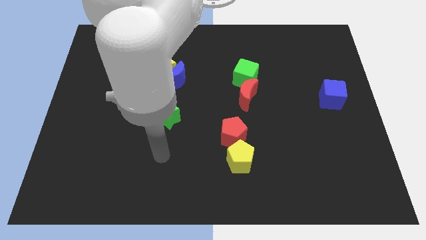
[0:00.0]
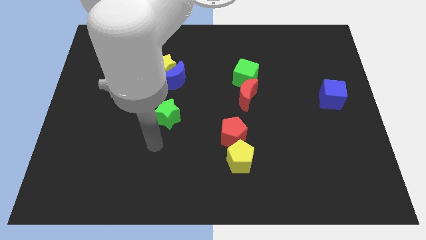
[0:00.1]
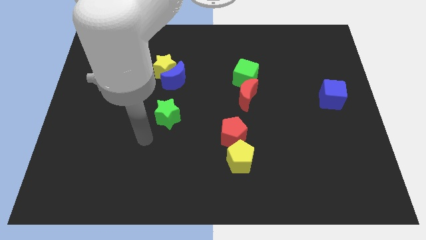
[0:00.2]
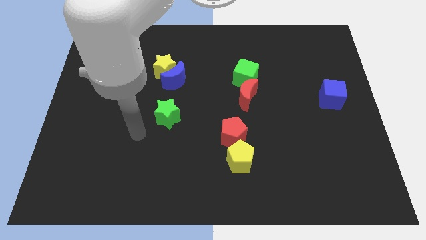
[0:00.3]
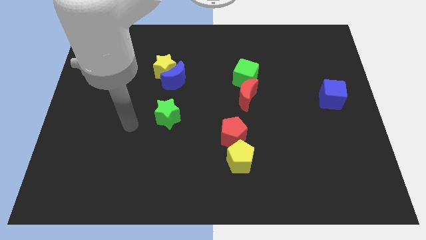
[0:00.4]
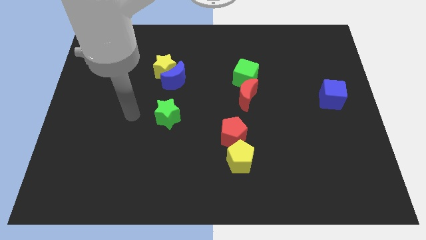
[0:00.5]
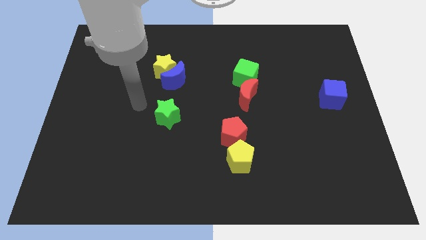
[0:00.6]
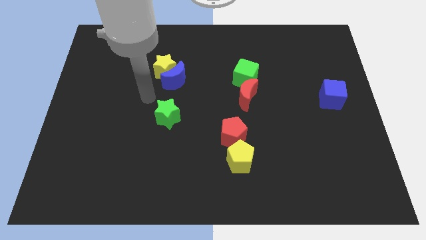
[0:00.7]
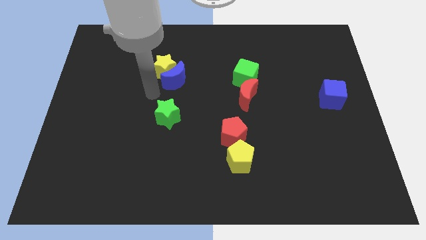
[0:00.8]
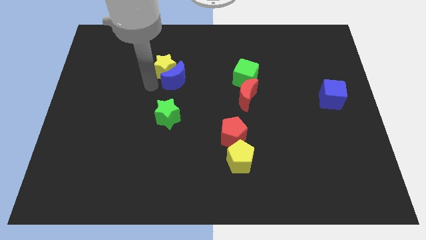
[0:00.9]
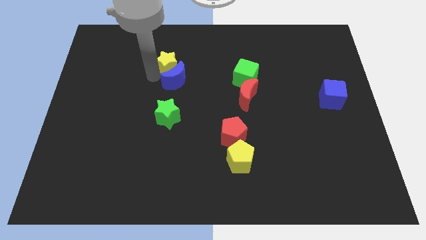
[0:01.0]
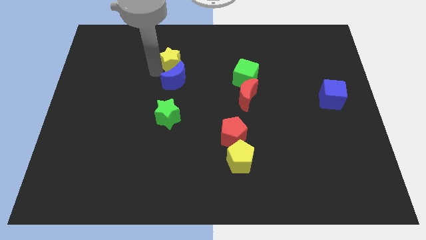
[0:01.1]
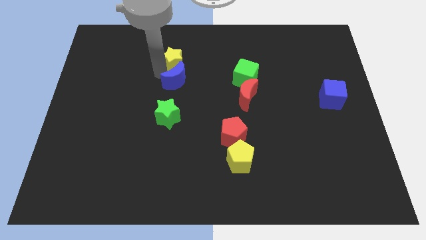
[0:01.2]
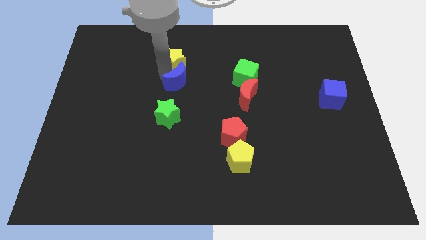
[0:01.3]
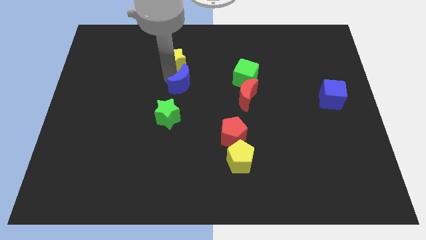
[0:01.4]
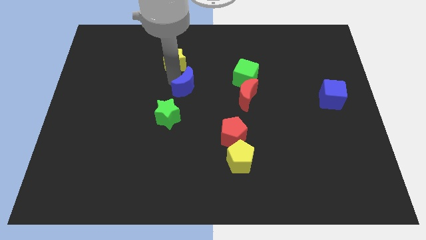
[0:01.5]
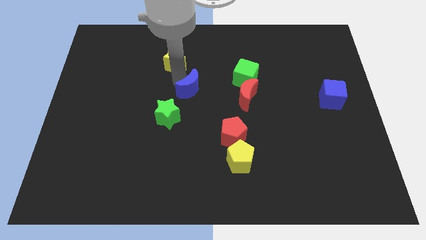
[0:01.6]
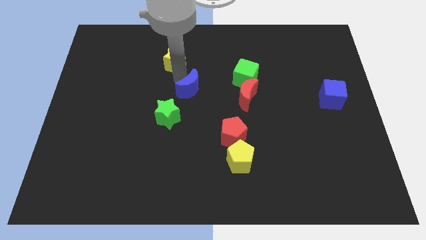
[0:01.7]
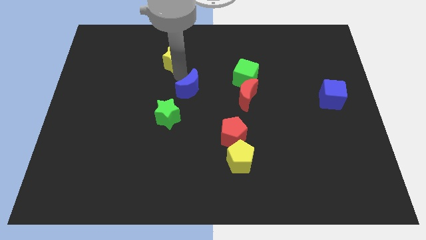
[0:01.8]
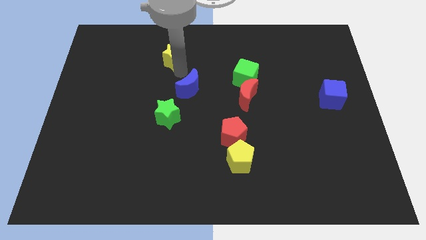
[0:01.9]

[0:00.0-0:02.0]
move the blue moon away from the yellow star

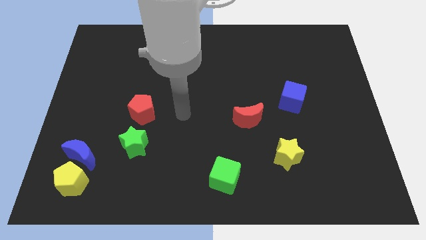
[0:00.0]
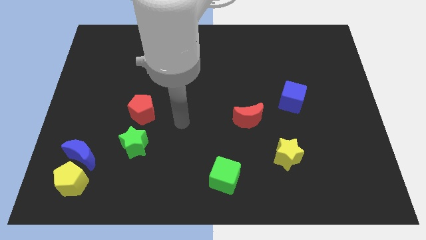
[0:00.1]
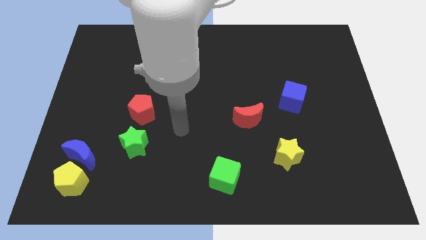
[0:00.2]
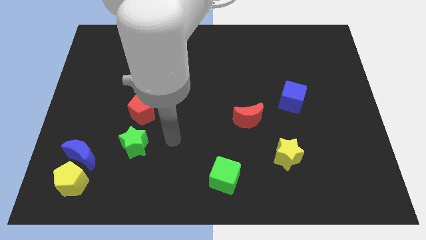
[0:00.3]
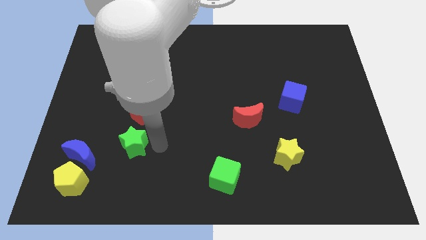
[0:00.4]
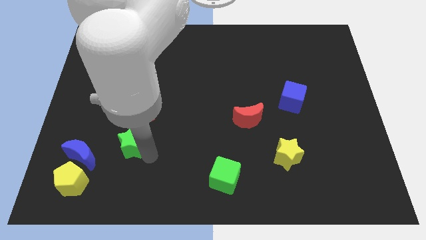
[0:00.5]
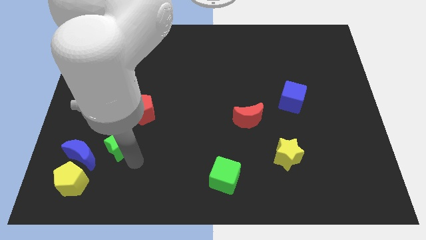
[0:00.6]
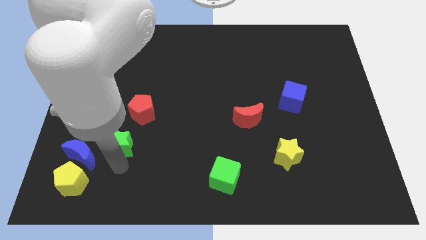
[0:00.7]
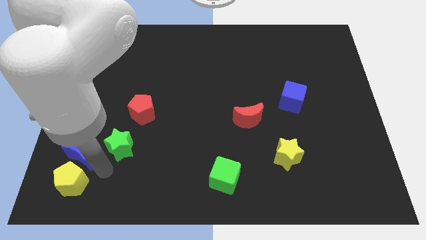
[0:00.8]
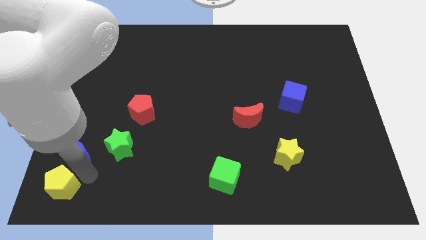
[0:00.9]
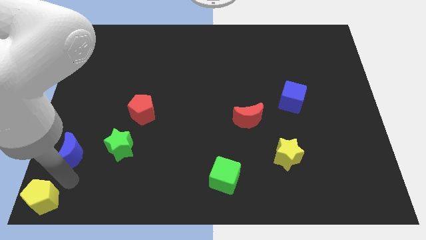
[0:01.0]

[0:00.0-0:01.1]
pull the blue moon apart from the yellow pentagon

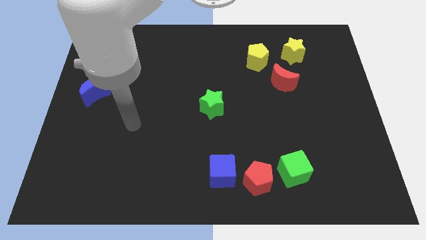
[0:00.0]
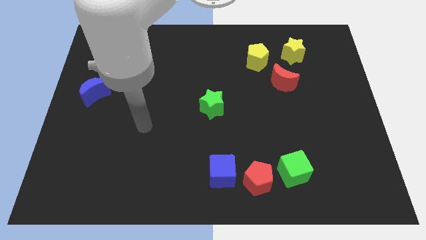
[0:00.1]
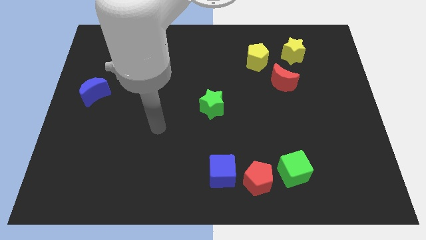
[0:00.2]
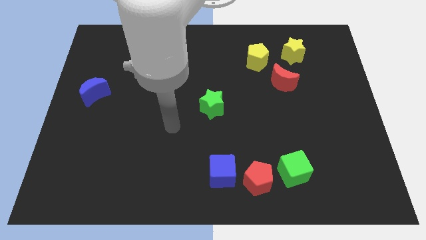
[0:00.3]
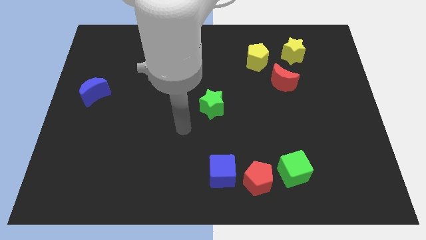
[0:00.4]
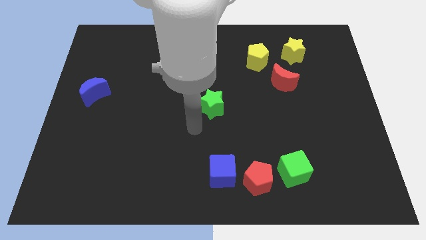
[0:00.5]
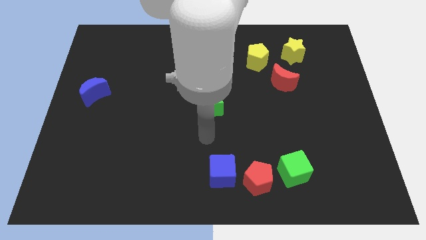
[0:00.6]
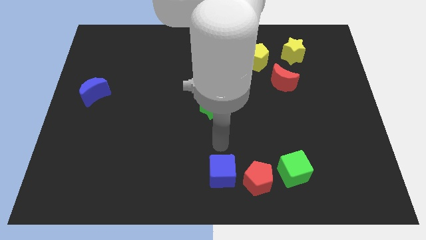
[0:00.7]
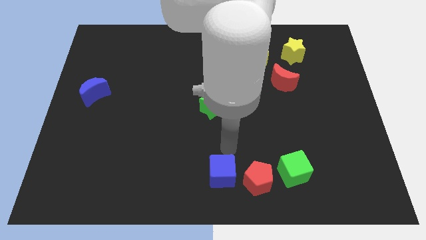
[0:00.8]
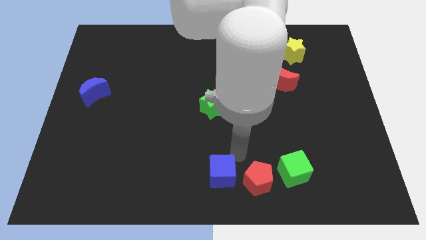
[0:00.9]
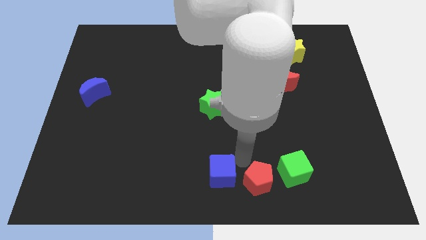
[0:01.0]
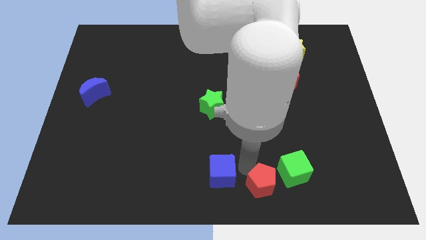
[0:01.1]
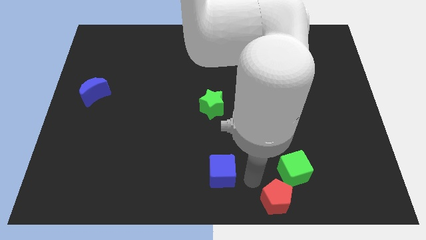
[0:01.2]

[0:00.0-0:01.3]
move the blue cube away from the red pentagon

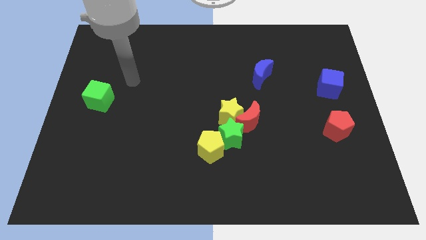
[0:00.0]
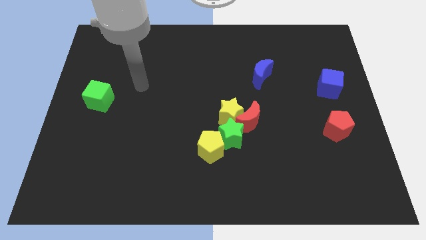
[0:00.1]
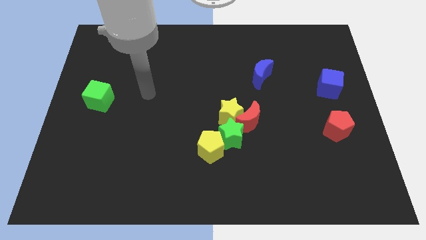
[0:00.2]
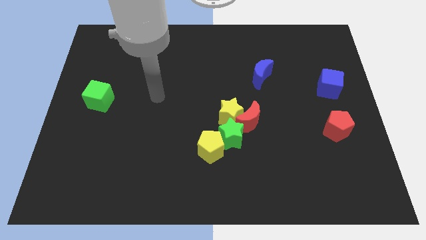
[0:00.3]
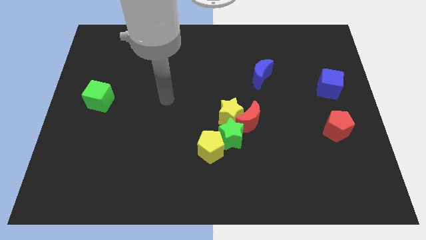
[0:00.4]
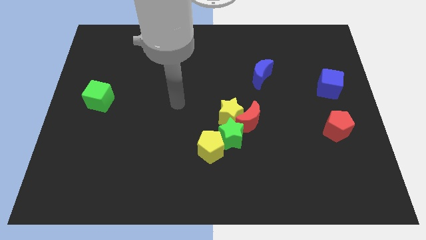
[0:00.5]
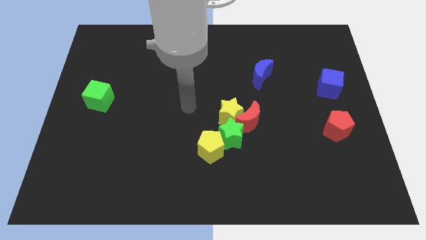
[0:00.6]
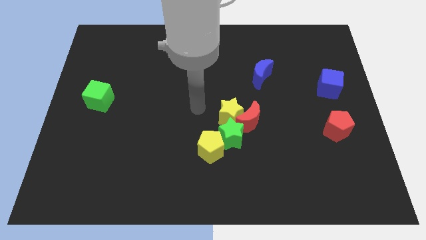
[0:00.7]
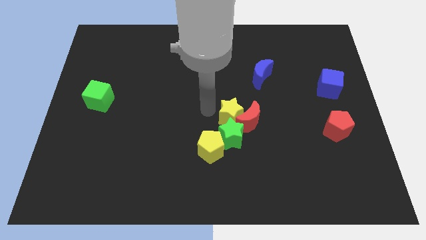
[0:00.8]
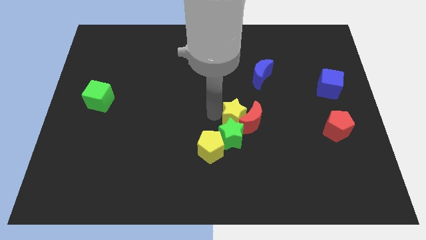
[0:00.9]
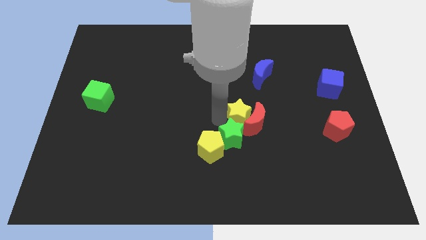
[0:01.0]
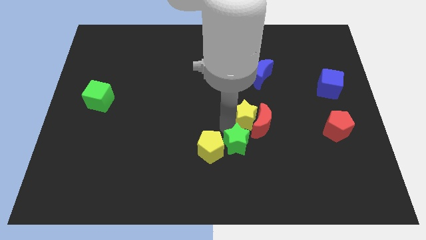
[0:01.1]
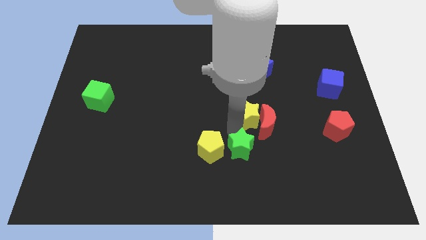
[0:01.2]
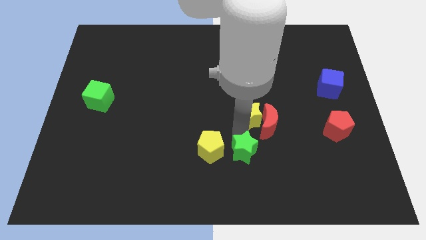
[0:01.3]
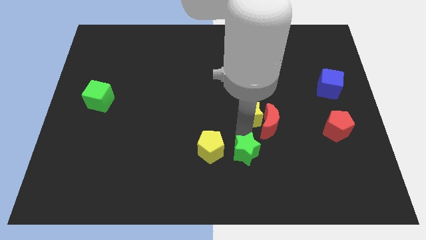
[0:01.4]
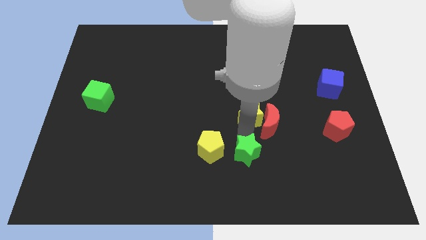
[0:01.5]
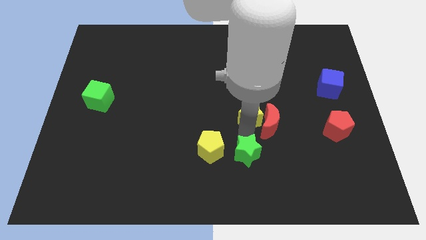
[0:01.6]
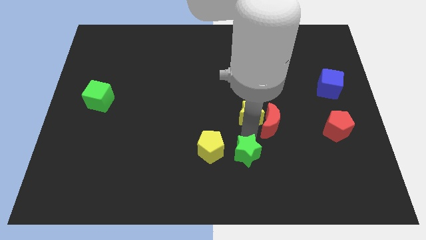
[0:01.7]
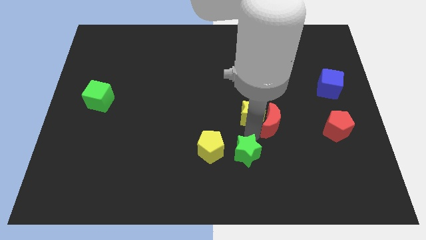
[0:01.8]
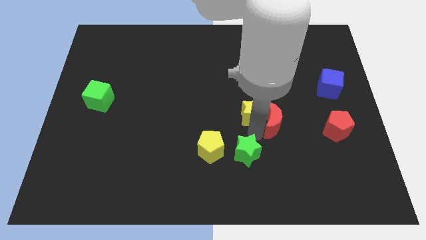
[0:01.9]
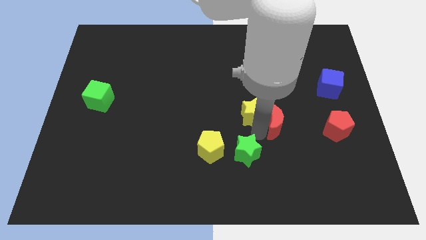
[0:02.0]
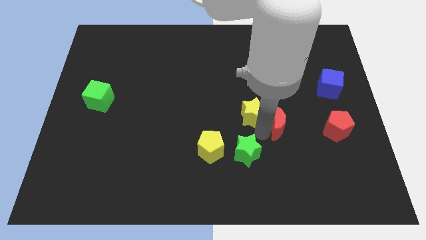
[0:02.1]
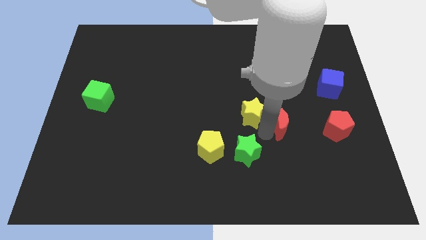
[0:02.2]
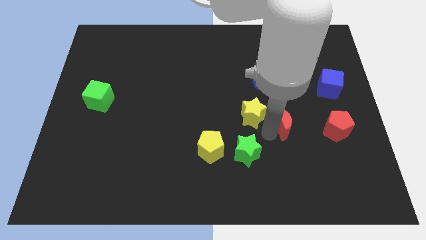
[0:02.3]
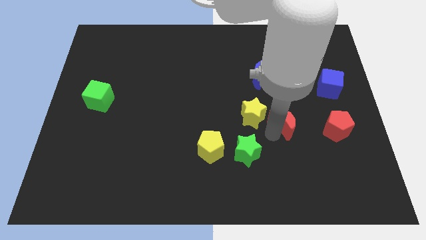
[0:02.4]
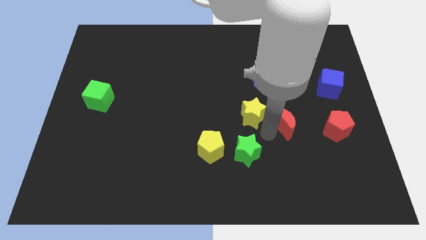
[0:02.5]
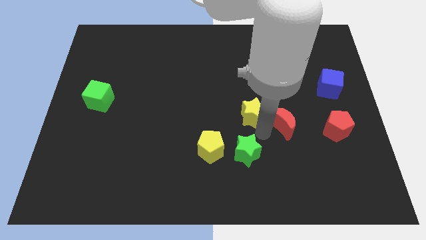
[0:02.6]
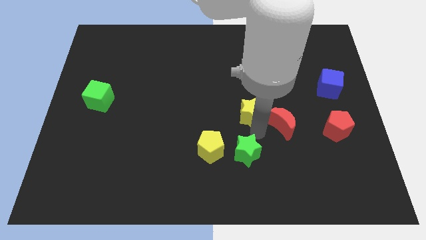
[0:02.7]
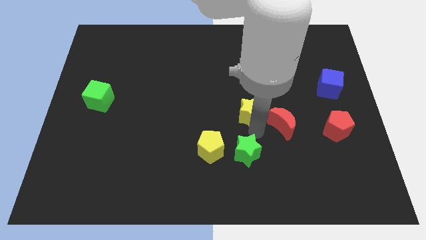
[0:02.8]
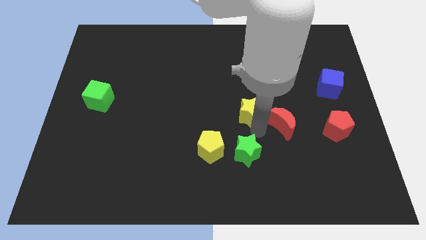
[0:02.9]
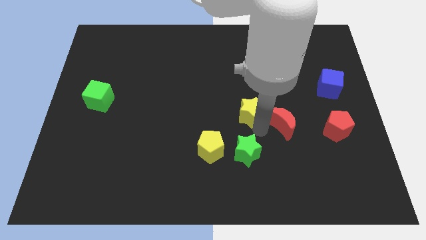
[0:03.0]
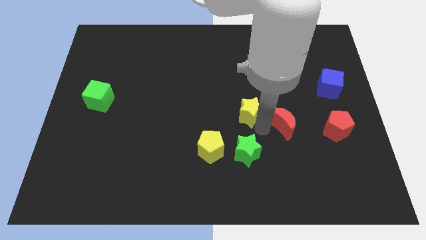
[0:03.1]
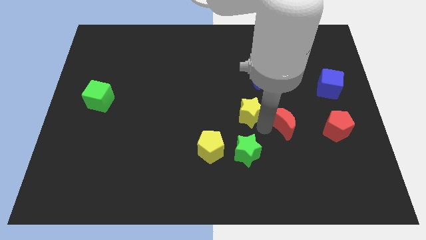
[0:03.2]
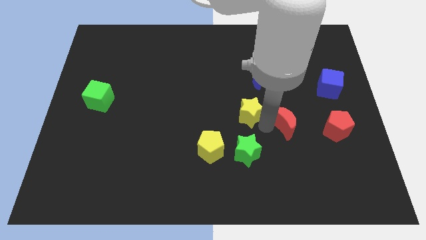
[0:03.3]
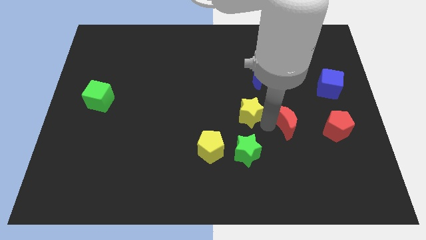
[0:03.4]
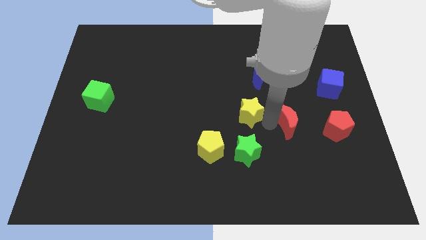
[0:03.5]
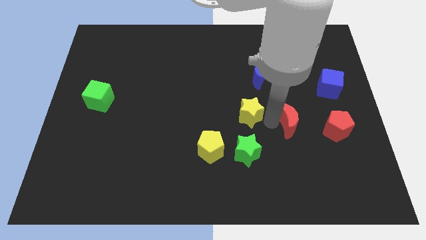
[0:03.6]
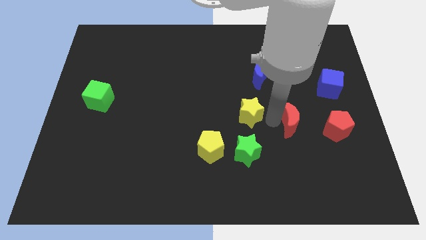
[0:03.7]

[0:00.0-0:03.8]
move the red moon away from the yellow star and green star

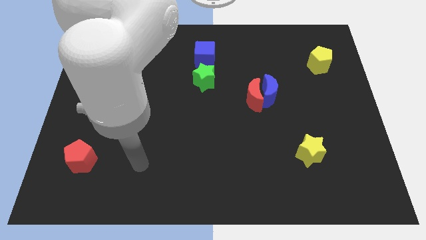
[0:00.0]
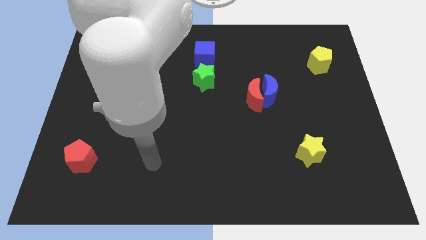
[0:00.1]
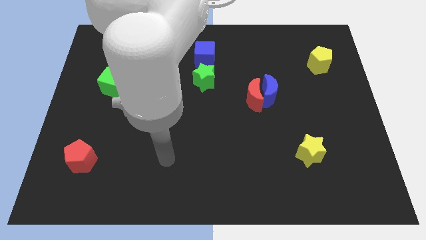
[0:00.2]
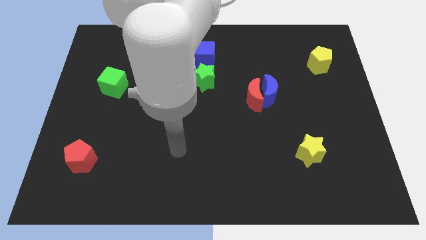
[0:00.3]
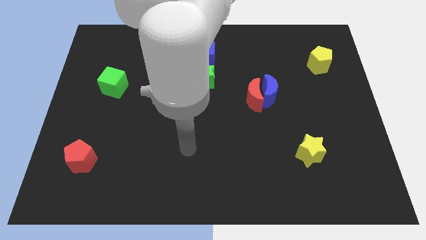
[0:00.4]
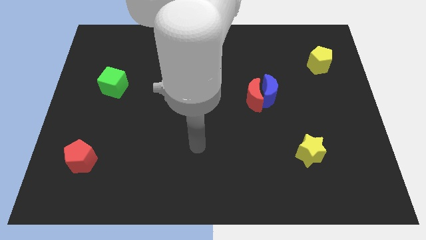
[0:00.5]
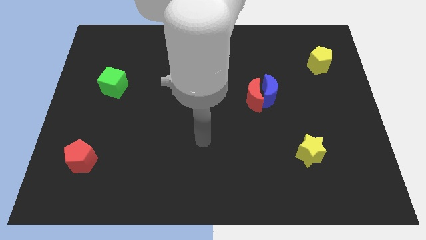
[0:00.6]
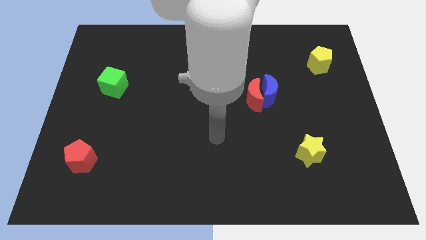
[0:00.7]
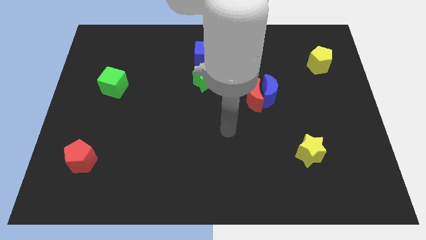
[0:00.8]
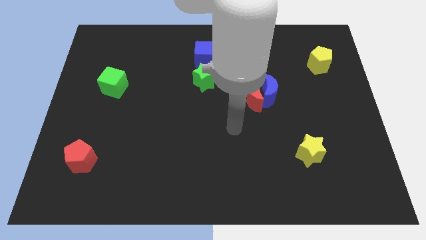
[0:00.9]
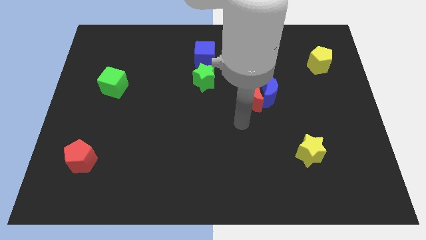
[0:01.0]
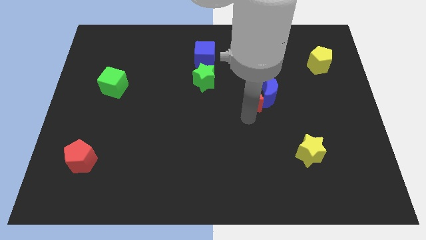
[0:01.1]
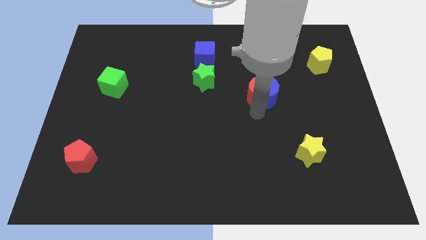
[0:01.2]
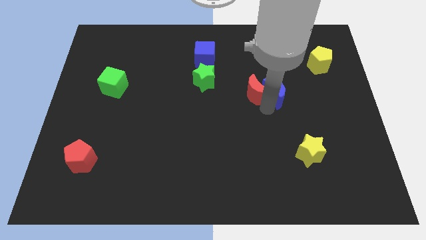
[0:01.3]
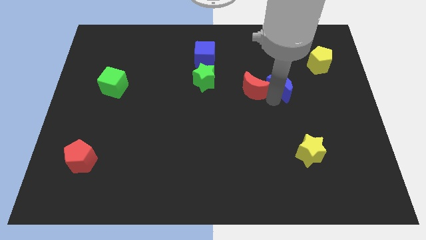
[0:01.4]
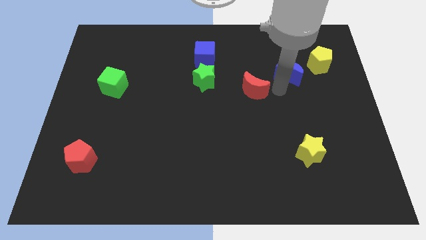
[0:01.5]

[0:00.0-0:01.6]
separate the red moon from the blue moon
